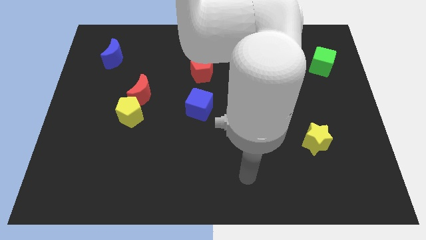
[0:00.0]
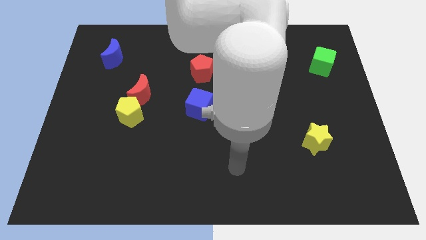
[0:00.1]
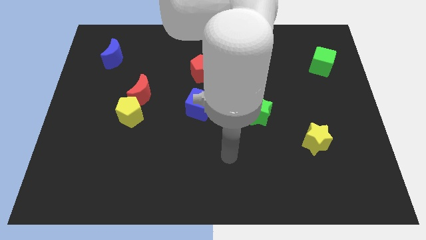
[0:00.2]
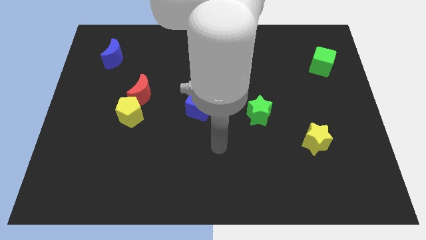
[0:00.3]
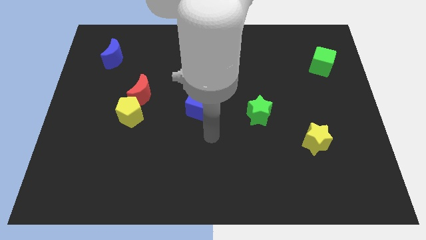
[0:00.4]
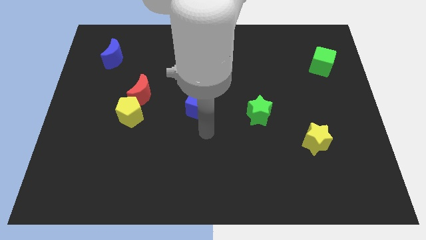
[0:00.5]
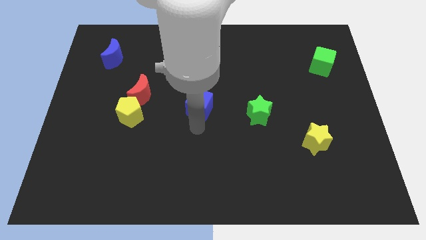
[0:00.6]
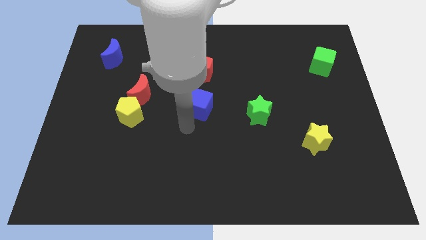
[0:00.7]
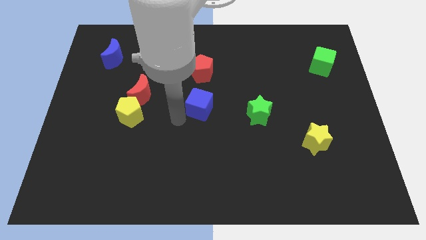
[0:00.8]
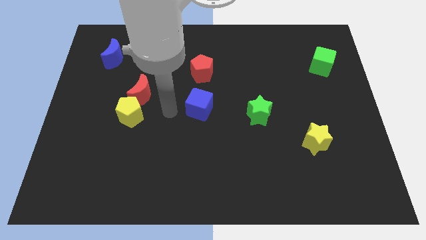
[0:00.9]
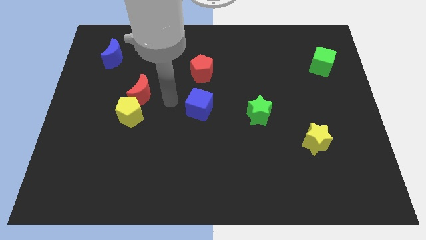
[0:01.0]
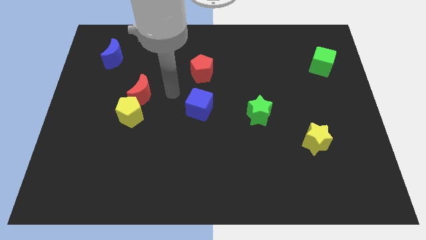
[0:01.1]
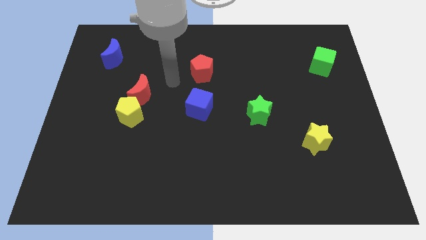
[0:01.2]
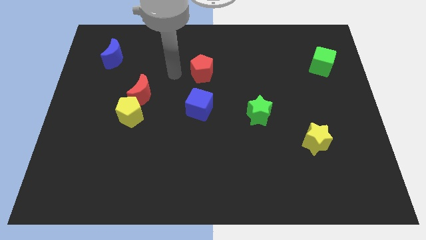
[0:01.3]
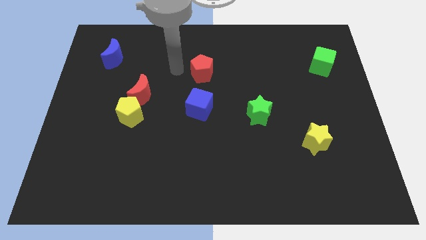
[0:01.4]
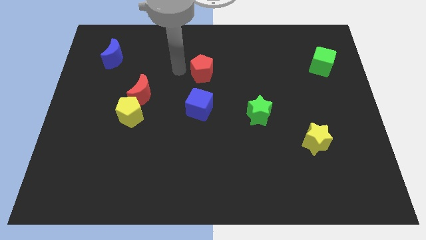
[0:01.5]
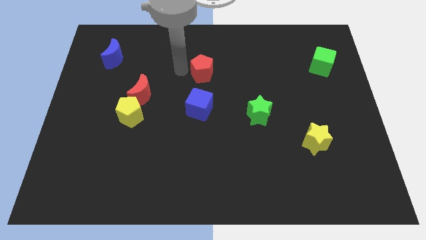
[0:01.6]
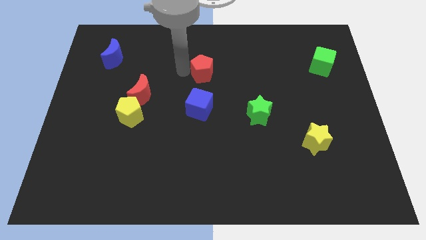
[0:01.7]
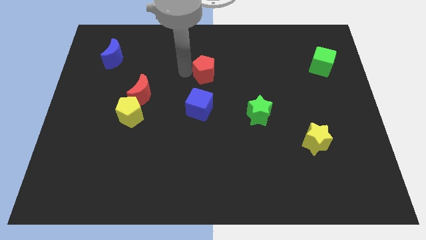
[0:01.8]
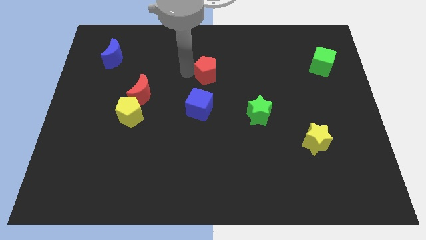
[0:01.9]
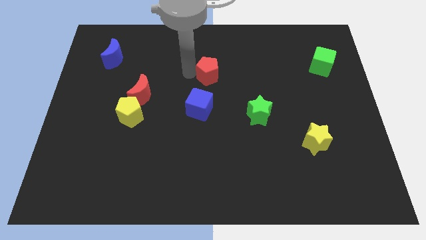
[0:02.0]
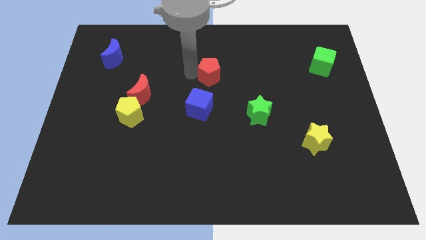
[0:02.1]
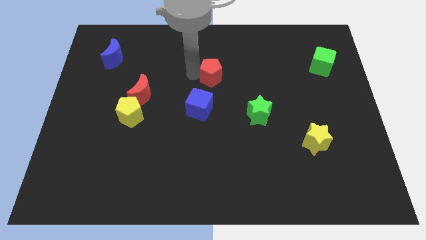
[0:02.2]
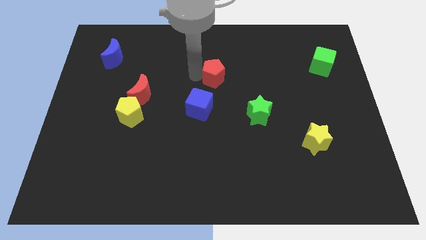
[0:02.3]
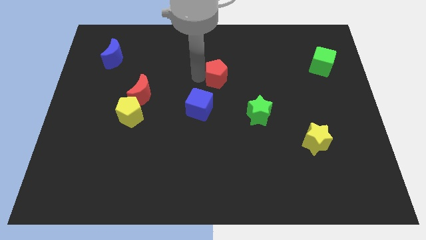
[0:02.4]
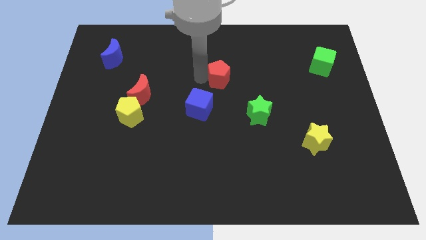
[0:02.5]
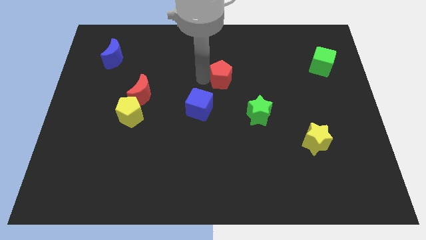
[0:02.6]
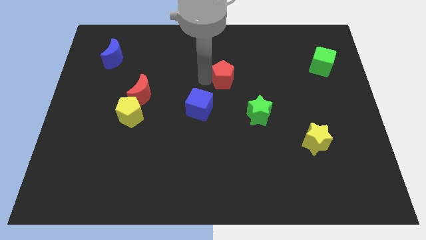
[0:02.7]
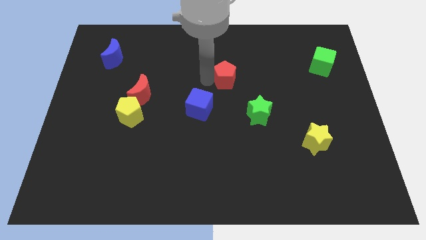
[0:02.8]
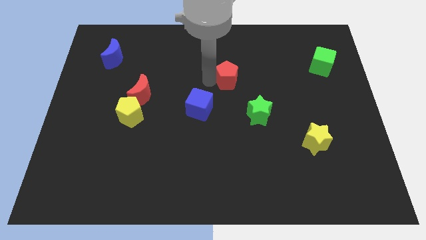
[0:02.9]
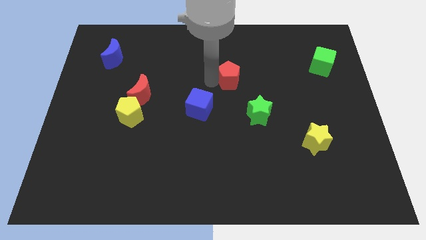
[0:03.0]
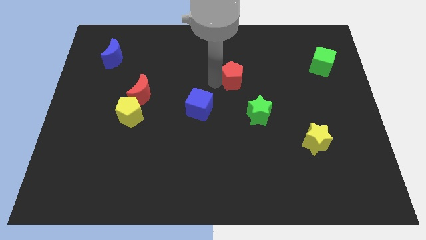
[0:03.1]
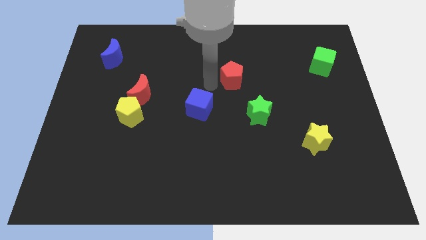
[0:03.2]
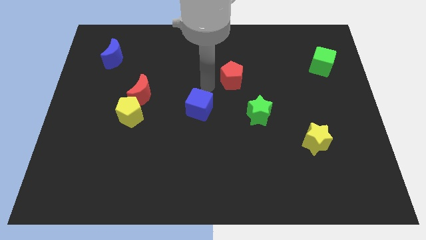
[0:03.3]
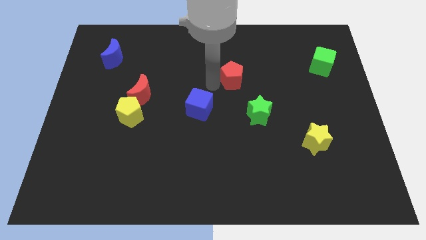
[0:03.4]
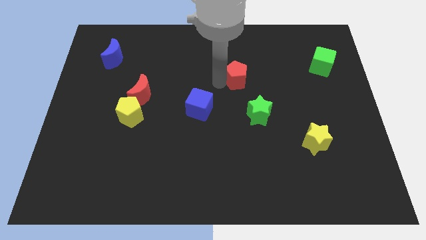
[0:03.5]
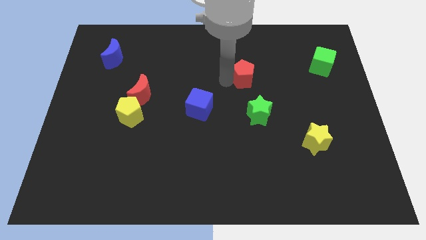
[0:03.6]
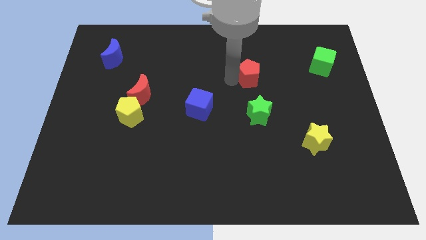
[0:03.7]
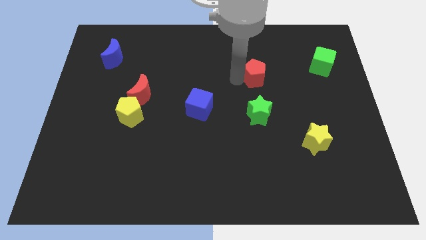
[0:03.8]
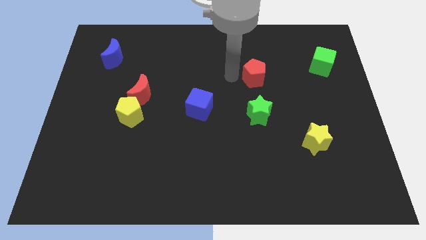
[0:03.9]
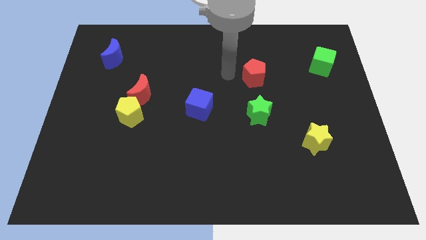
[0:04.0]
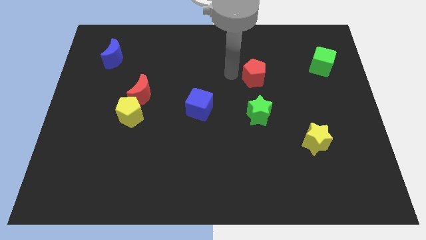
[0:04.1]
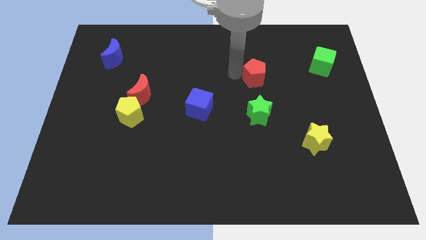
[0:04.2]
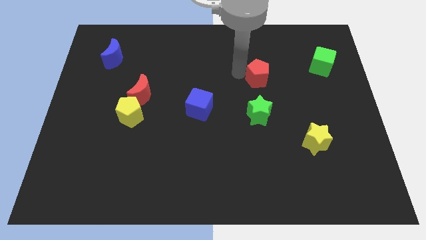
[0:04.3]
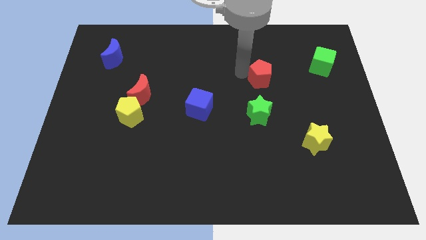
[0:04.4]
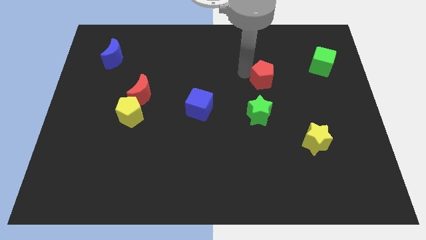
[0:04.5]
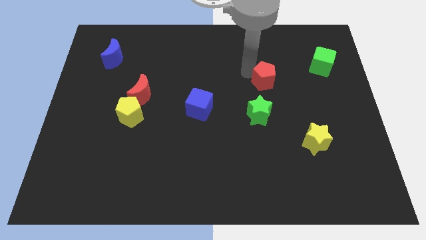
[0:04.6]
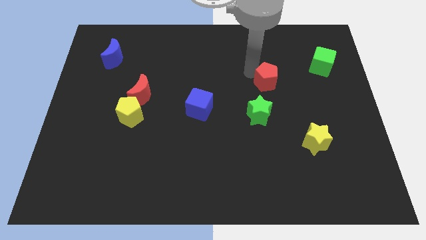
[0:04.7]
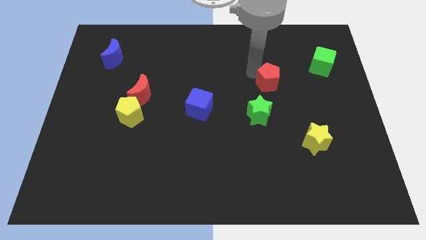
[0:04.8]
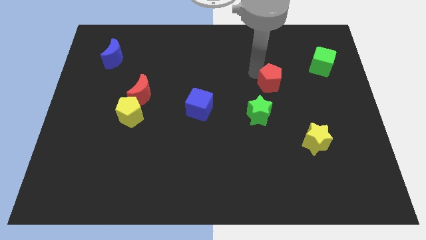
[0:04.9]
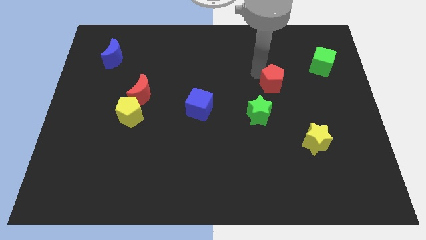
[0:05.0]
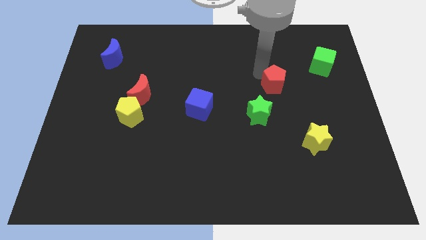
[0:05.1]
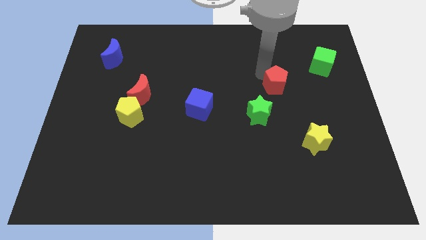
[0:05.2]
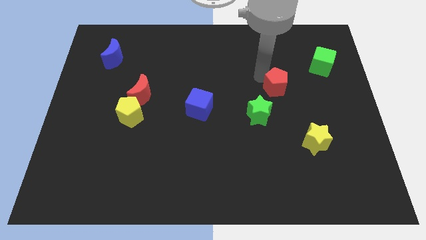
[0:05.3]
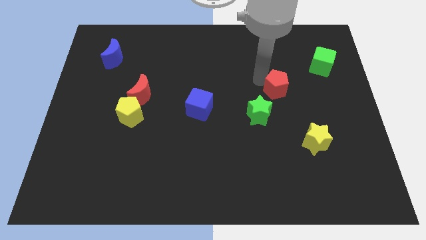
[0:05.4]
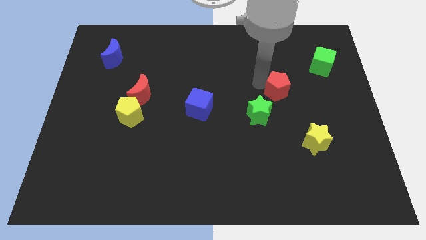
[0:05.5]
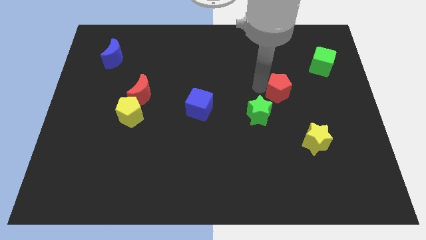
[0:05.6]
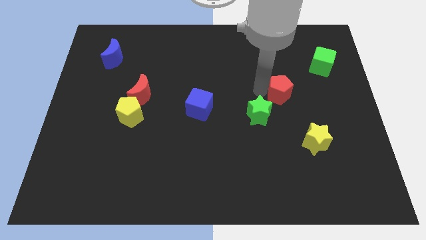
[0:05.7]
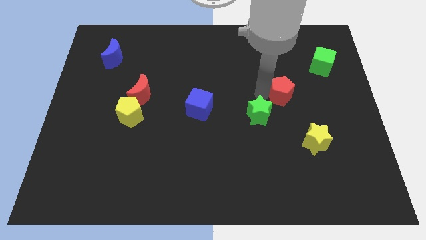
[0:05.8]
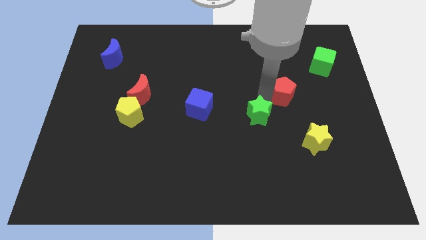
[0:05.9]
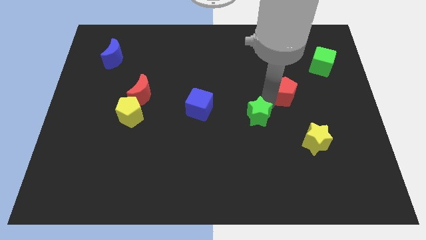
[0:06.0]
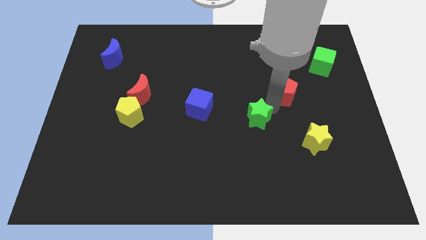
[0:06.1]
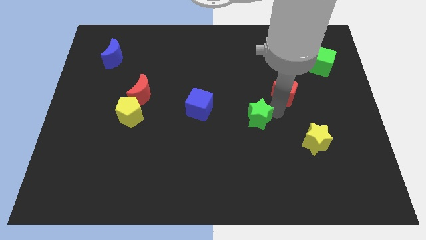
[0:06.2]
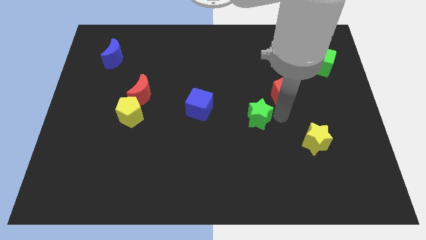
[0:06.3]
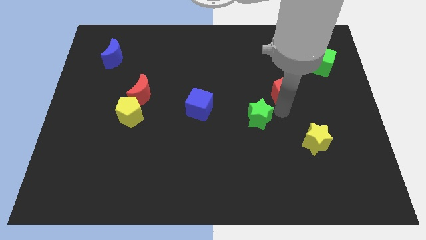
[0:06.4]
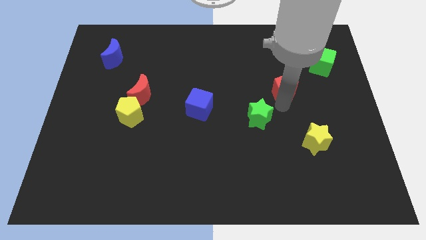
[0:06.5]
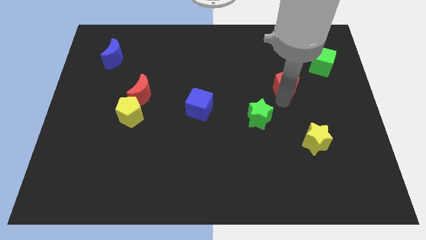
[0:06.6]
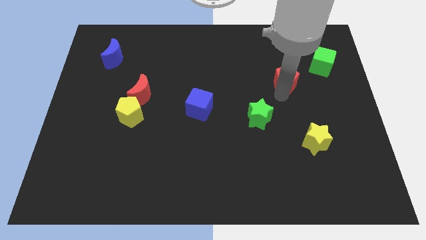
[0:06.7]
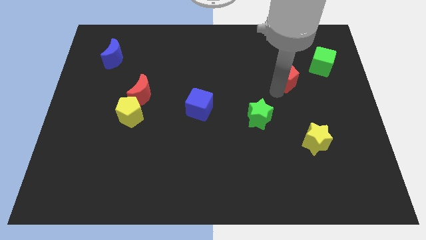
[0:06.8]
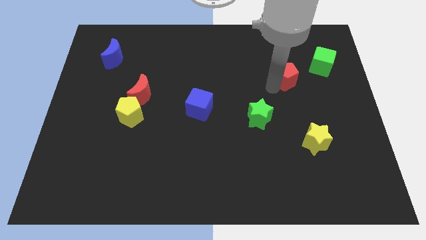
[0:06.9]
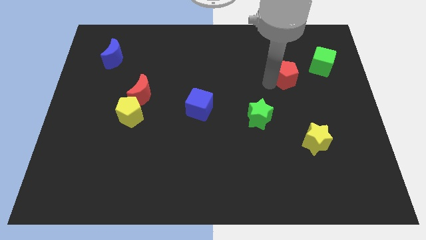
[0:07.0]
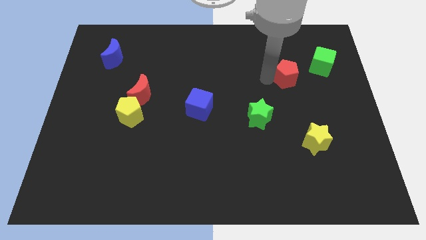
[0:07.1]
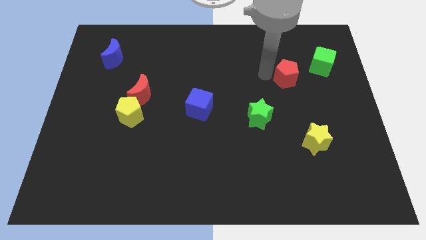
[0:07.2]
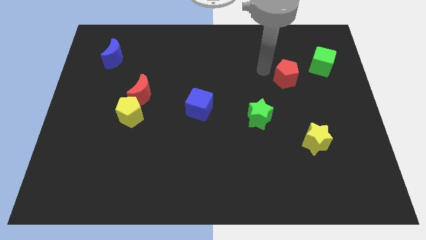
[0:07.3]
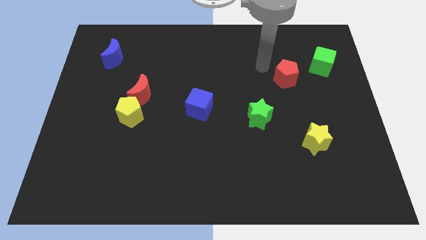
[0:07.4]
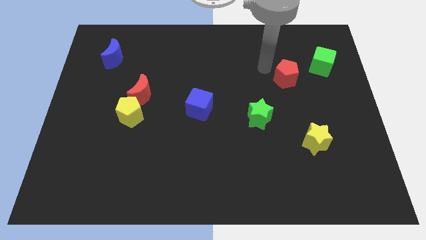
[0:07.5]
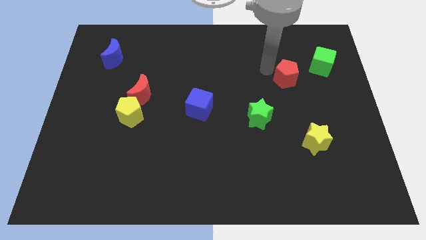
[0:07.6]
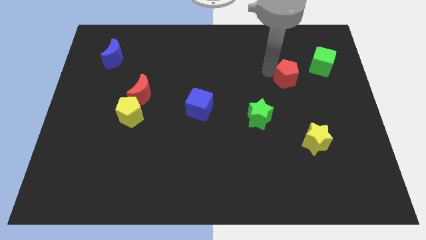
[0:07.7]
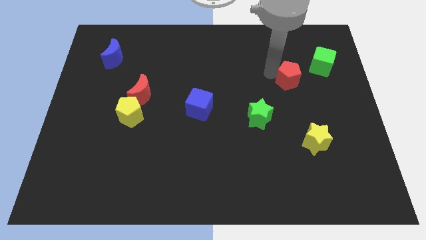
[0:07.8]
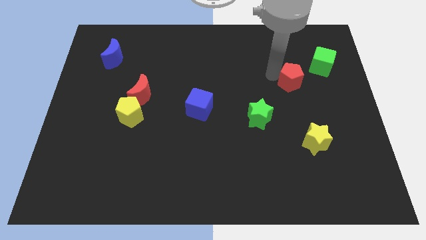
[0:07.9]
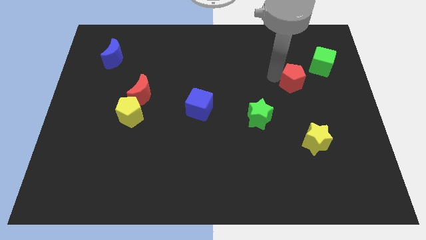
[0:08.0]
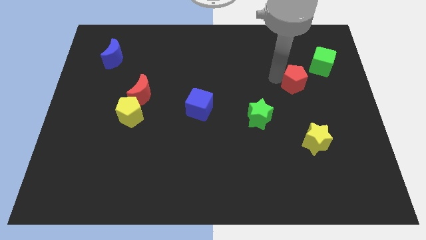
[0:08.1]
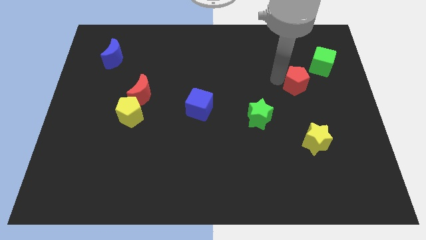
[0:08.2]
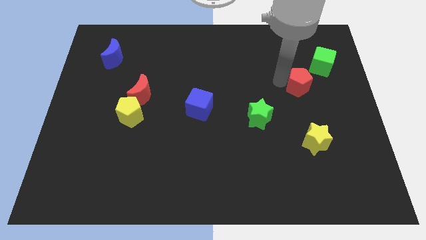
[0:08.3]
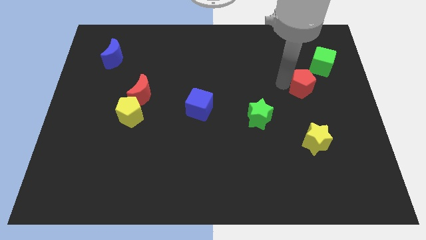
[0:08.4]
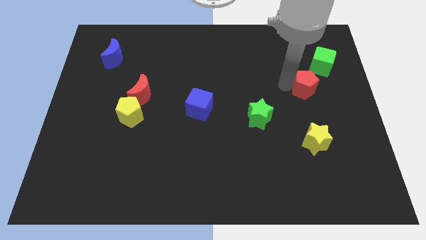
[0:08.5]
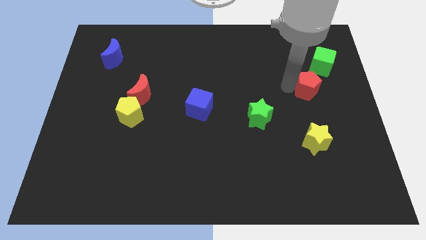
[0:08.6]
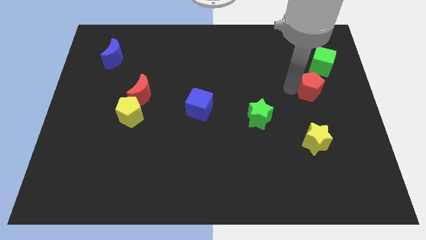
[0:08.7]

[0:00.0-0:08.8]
slide the red pentagon below the green cube
